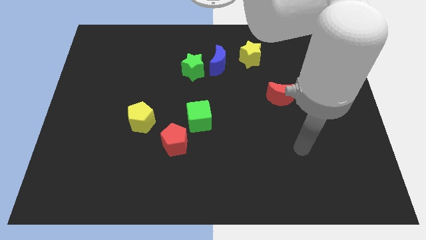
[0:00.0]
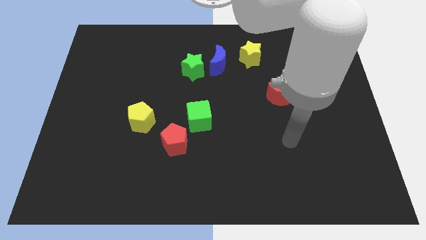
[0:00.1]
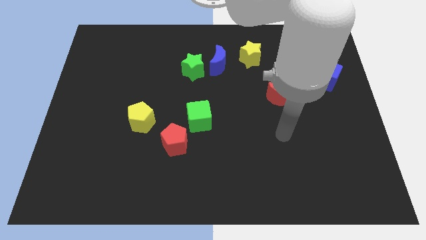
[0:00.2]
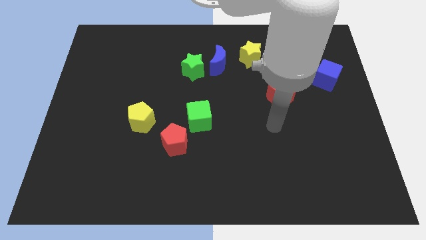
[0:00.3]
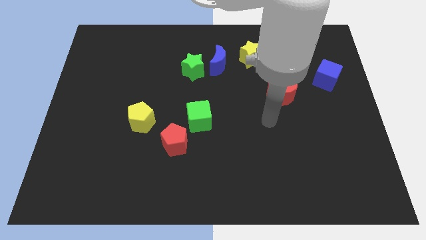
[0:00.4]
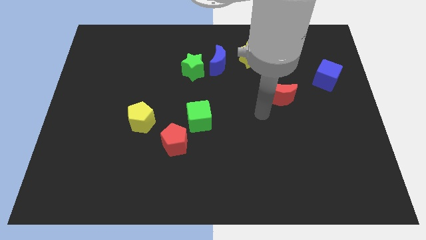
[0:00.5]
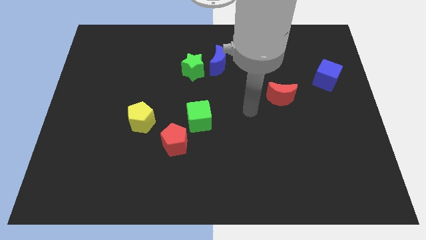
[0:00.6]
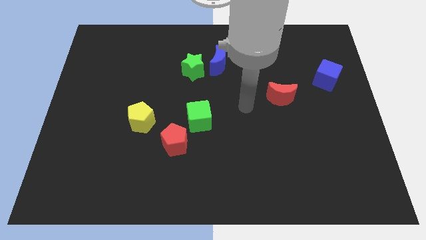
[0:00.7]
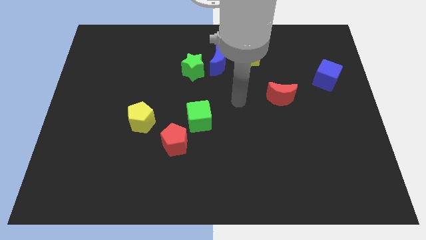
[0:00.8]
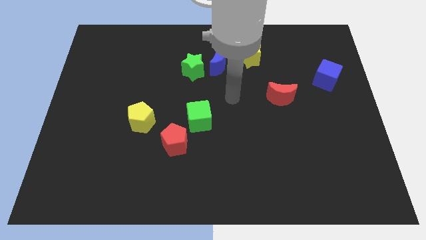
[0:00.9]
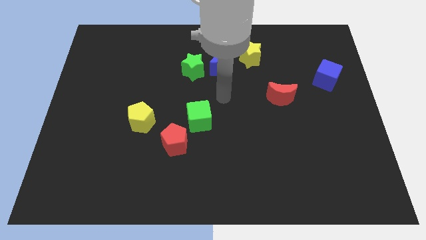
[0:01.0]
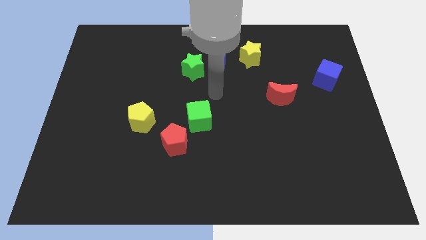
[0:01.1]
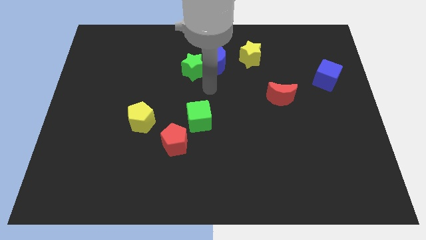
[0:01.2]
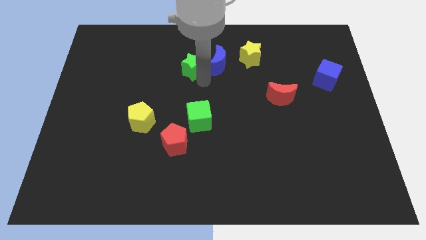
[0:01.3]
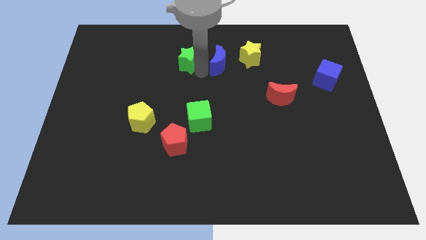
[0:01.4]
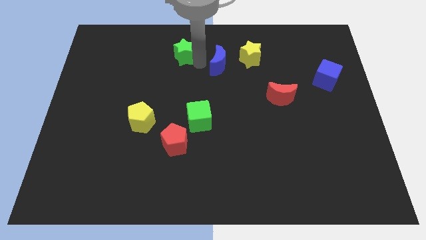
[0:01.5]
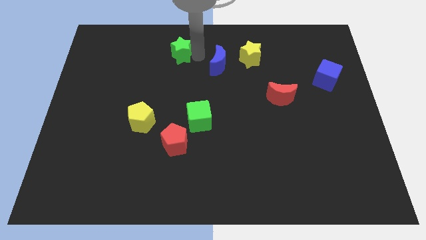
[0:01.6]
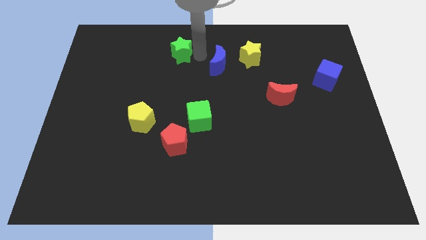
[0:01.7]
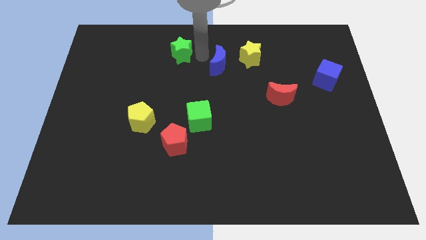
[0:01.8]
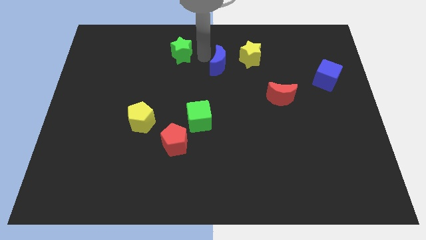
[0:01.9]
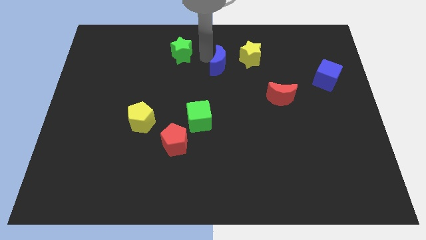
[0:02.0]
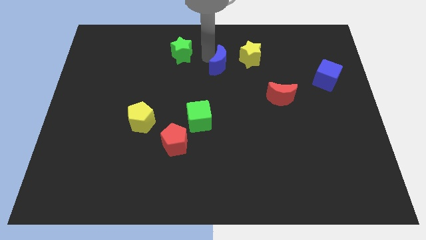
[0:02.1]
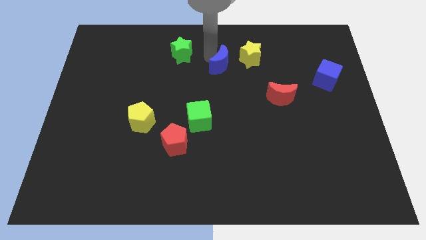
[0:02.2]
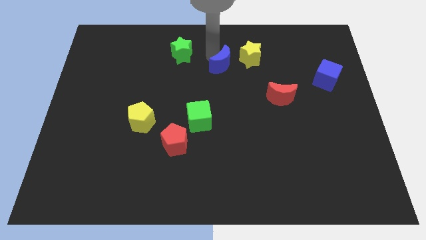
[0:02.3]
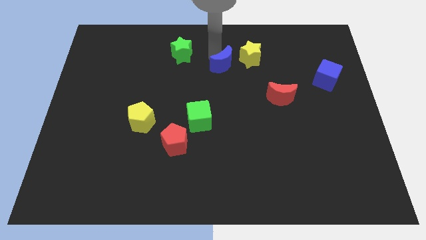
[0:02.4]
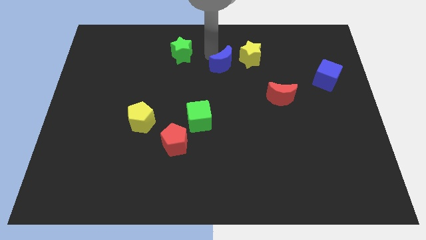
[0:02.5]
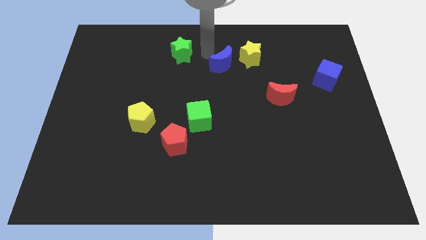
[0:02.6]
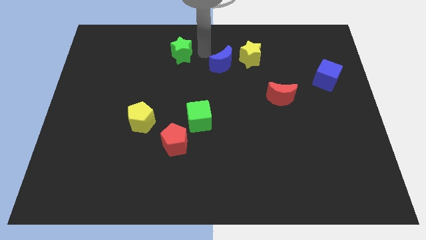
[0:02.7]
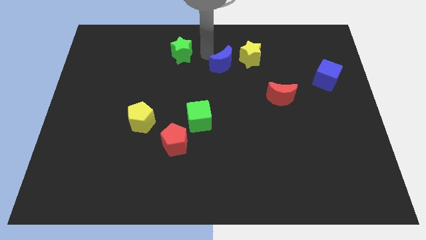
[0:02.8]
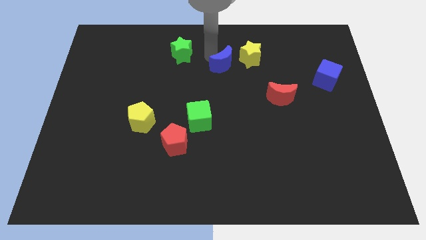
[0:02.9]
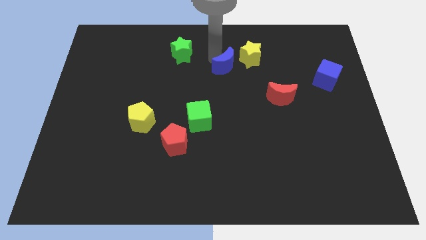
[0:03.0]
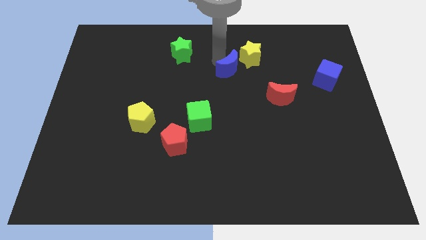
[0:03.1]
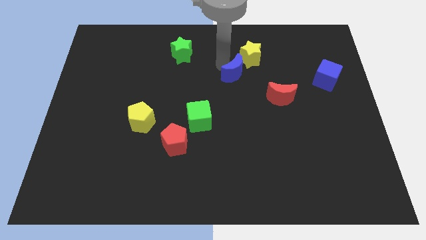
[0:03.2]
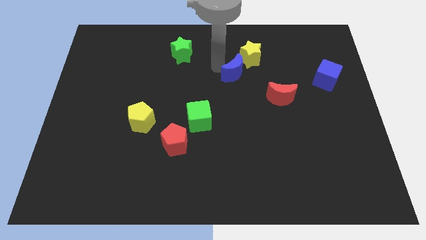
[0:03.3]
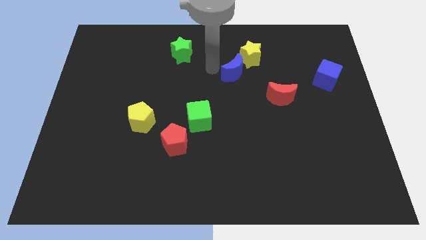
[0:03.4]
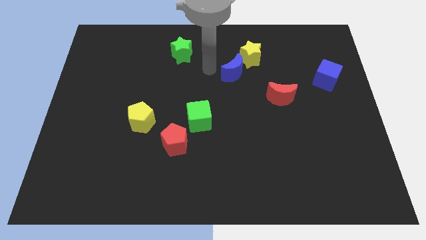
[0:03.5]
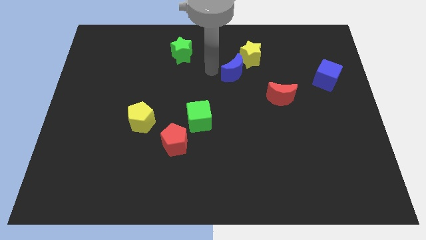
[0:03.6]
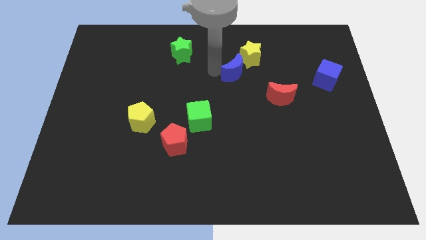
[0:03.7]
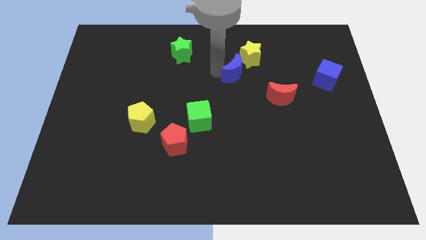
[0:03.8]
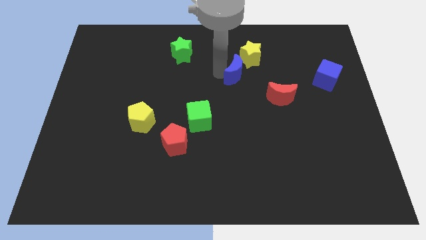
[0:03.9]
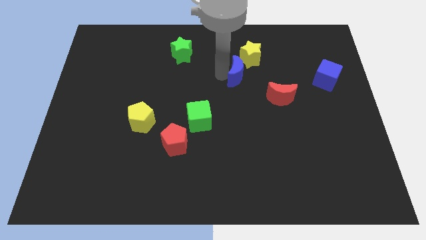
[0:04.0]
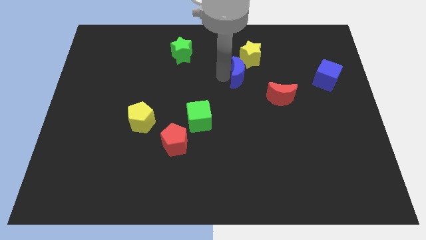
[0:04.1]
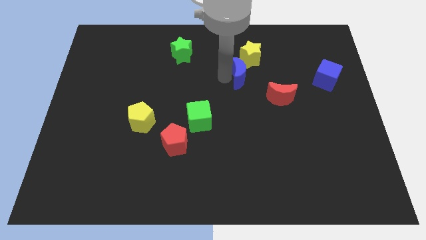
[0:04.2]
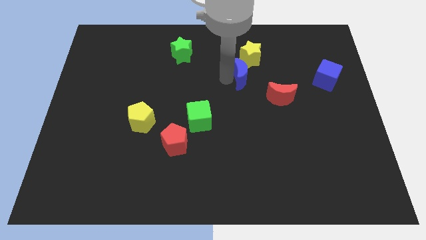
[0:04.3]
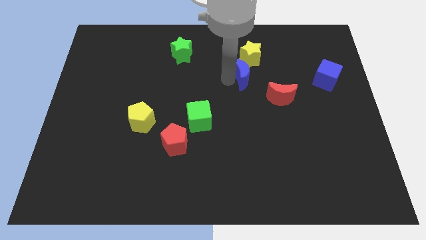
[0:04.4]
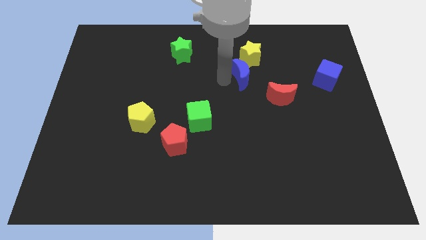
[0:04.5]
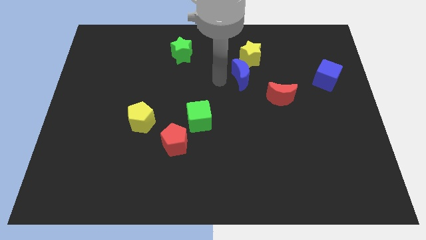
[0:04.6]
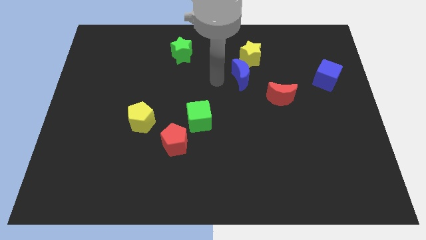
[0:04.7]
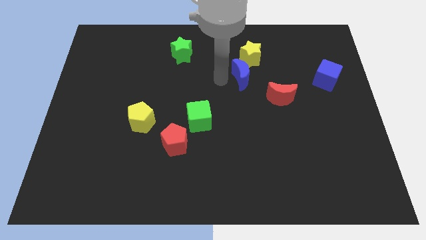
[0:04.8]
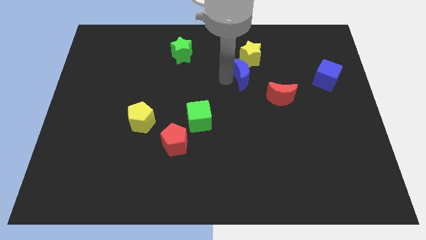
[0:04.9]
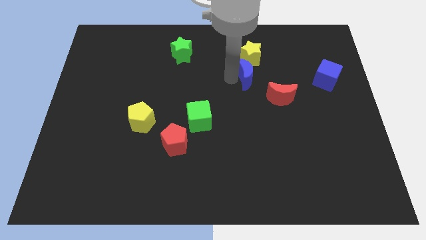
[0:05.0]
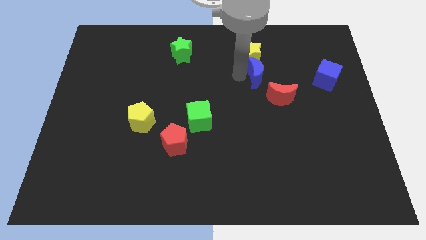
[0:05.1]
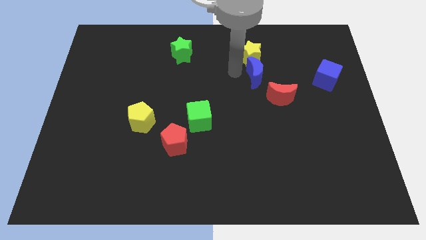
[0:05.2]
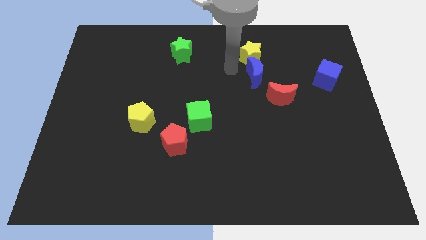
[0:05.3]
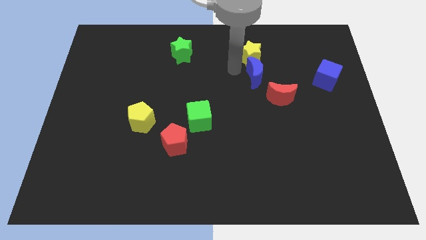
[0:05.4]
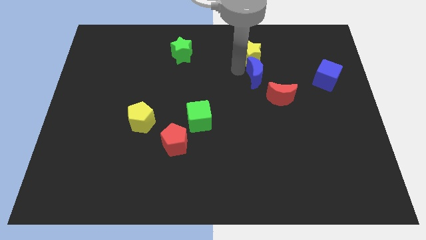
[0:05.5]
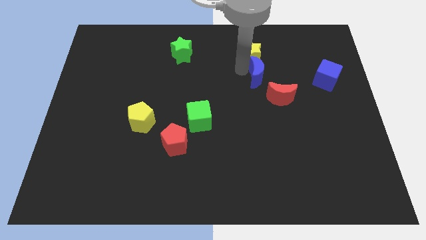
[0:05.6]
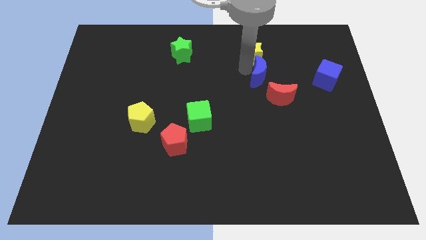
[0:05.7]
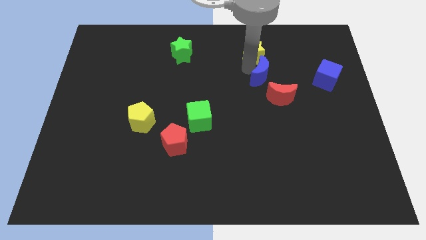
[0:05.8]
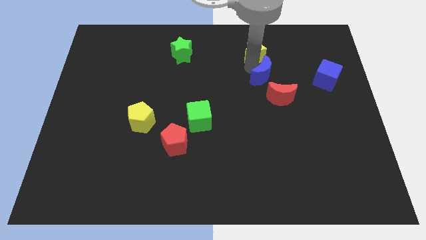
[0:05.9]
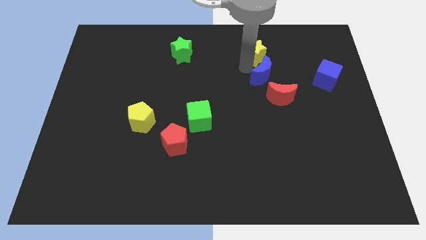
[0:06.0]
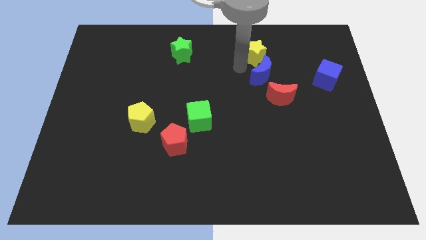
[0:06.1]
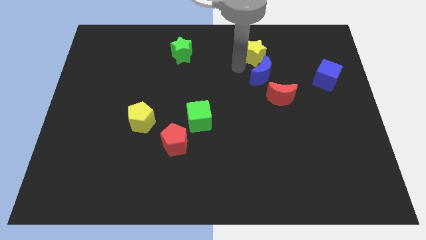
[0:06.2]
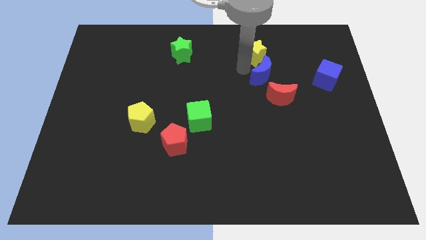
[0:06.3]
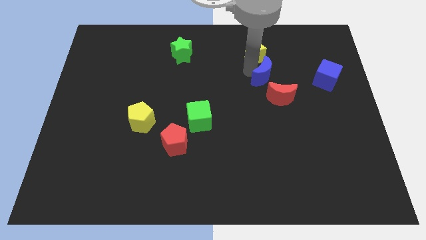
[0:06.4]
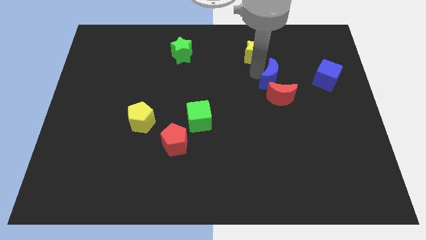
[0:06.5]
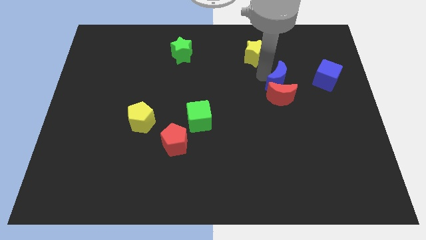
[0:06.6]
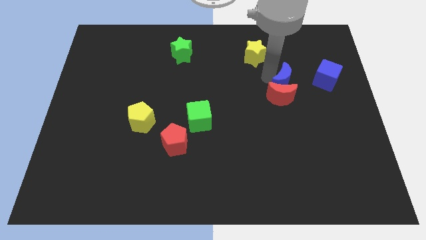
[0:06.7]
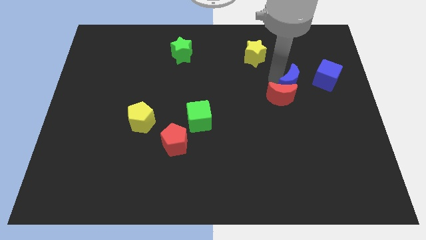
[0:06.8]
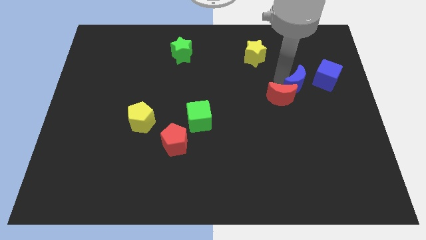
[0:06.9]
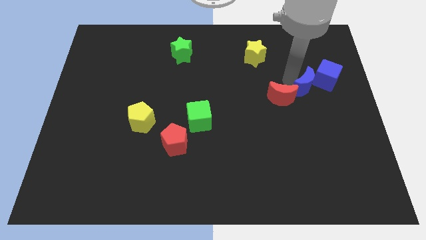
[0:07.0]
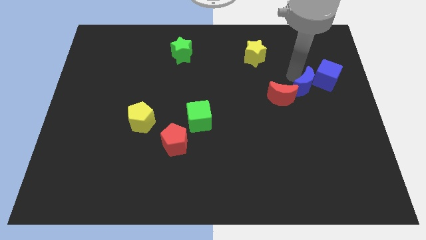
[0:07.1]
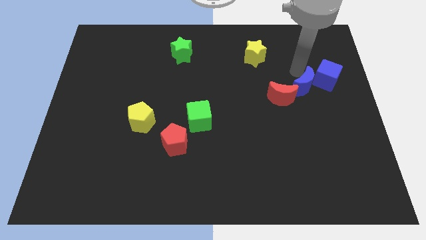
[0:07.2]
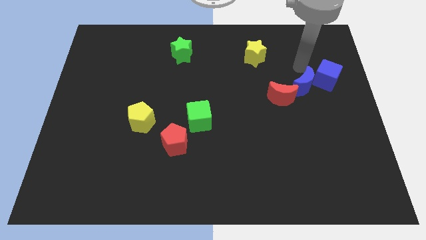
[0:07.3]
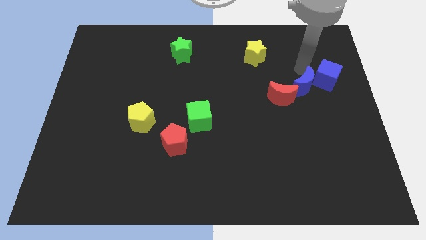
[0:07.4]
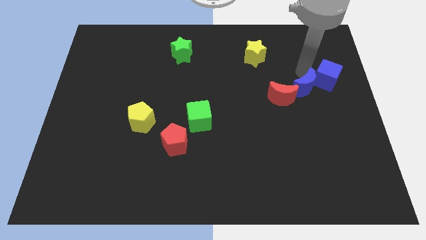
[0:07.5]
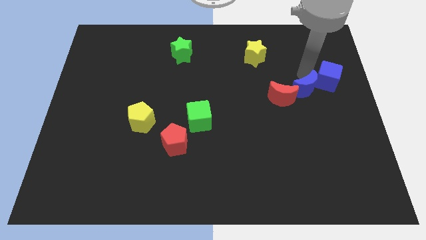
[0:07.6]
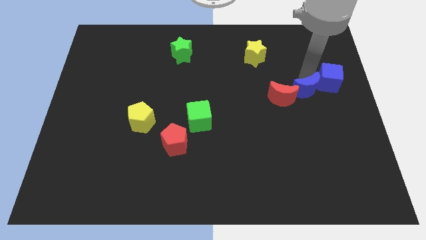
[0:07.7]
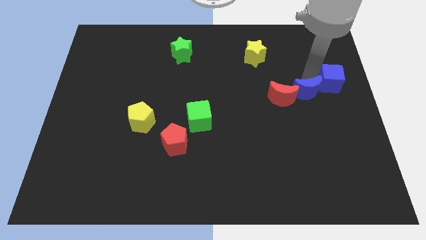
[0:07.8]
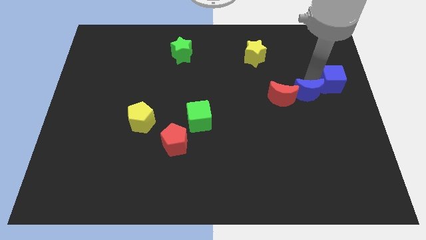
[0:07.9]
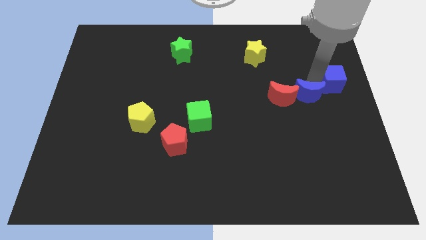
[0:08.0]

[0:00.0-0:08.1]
slide the blue moon downwards and to the right diagonally
